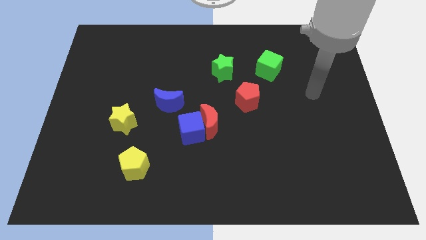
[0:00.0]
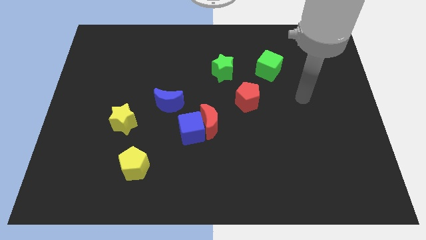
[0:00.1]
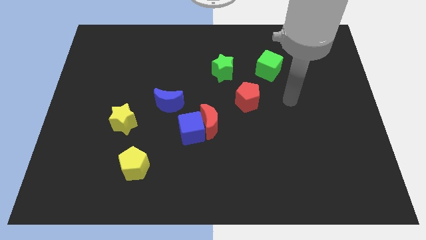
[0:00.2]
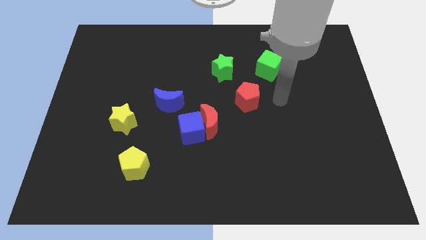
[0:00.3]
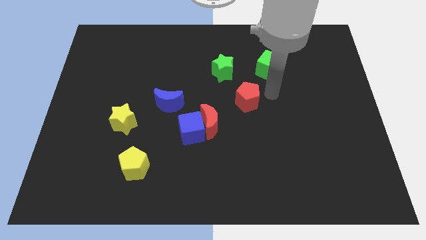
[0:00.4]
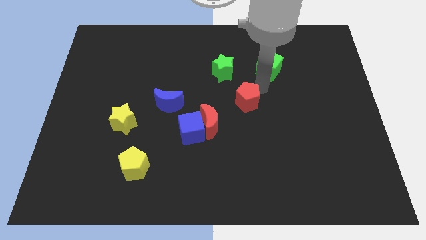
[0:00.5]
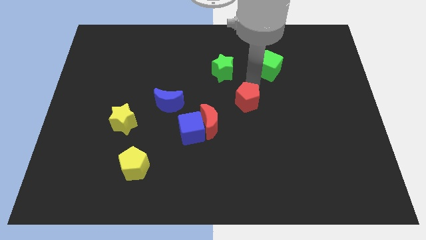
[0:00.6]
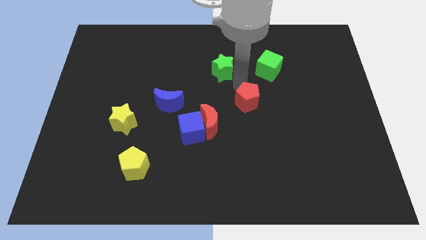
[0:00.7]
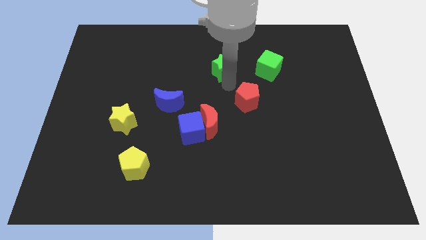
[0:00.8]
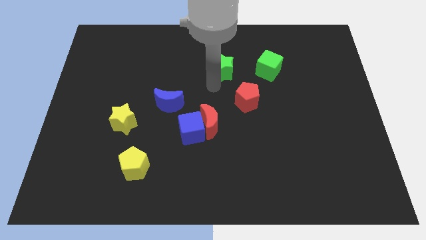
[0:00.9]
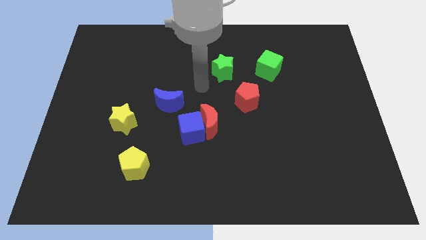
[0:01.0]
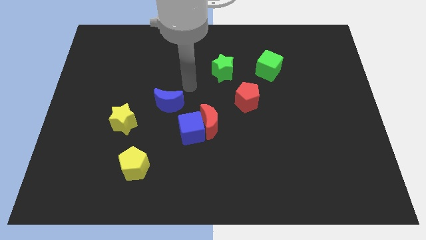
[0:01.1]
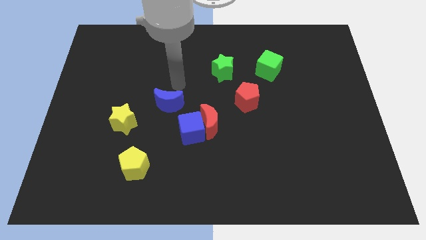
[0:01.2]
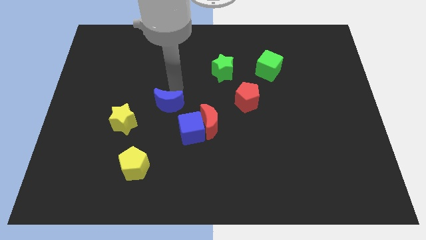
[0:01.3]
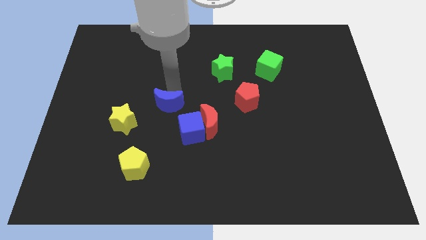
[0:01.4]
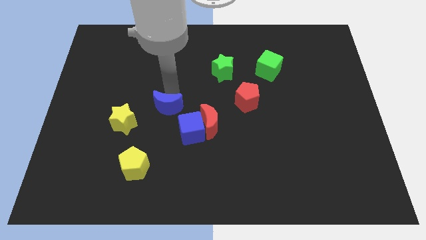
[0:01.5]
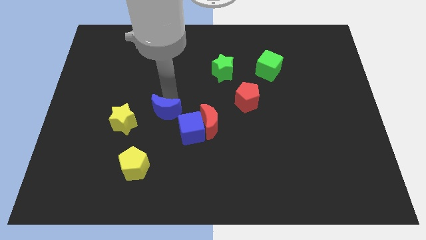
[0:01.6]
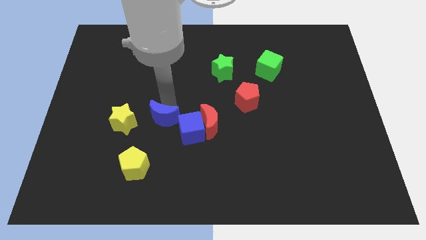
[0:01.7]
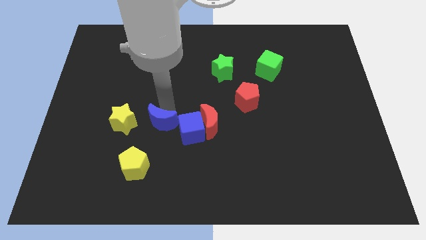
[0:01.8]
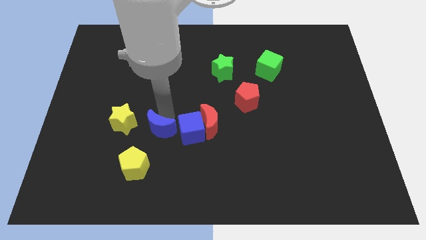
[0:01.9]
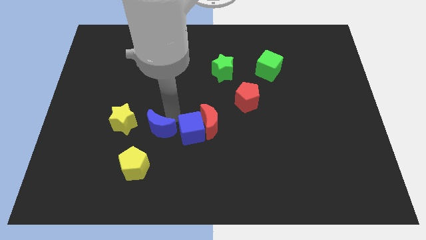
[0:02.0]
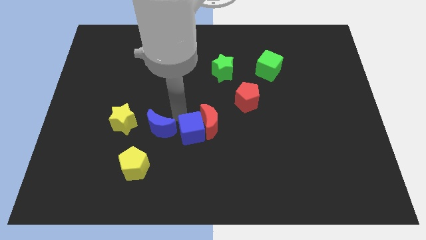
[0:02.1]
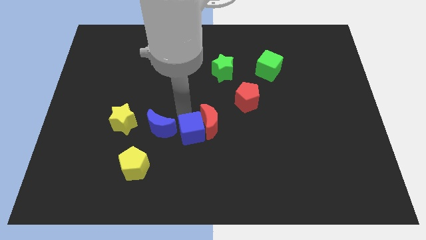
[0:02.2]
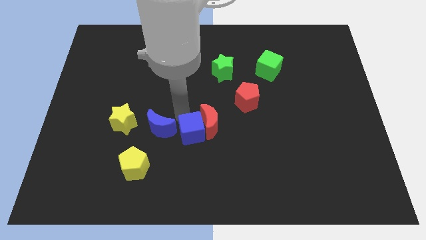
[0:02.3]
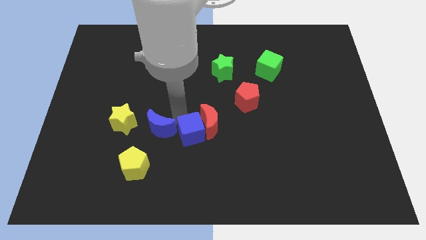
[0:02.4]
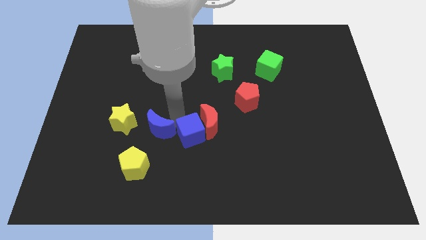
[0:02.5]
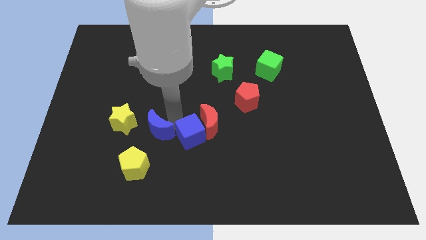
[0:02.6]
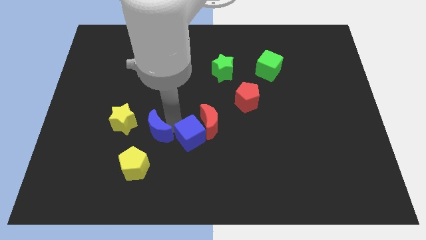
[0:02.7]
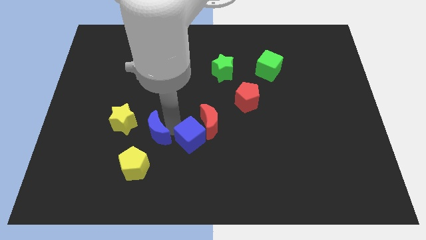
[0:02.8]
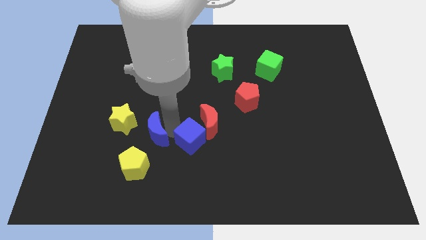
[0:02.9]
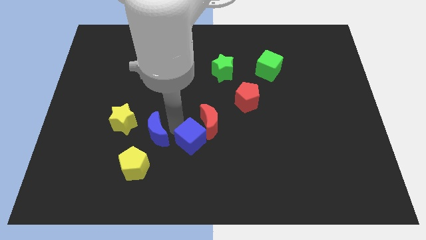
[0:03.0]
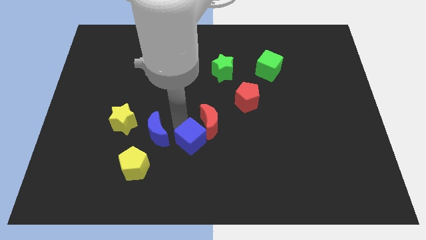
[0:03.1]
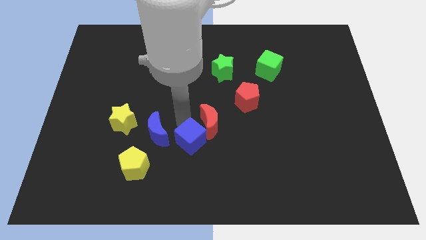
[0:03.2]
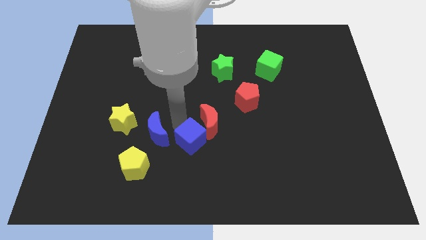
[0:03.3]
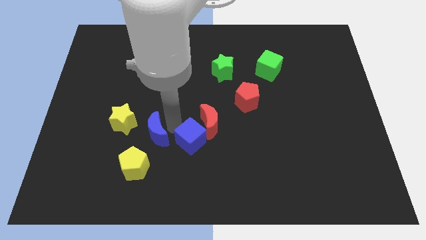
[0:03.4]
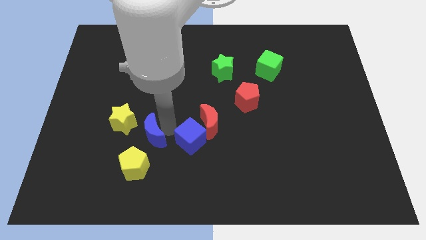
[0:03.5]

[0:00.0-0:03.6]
slightly slide the blue moon down and to the left

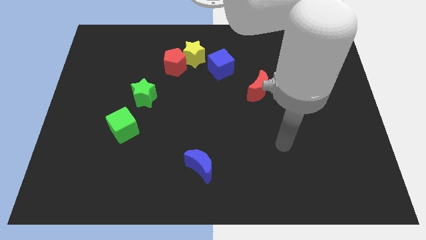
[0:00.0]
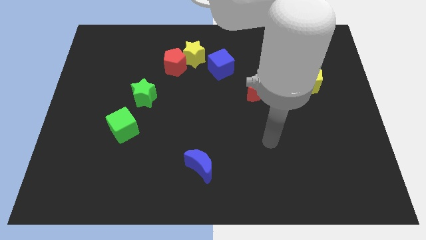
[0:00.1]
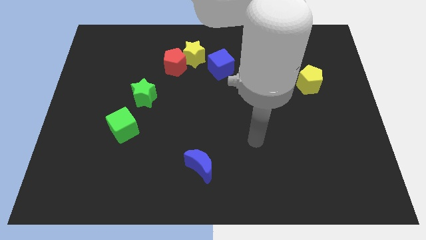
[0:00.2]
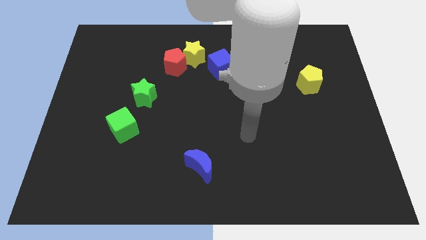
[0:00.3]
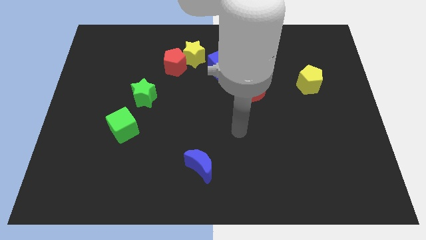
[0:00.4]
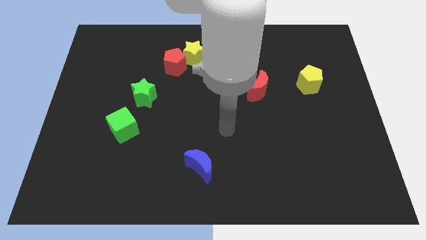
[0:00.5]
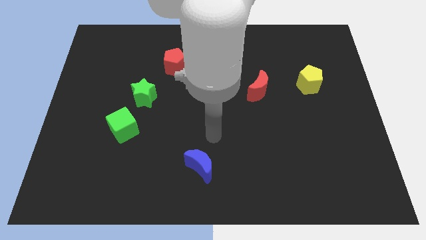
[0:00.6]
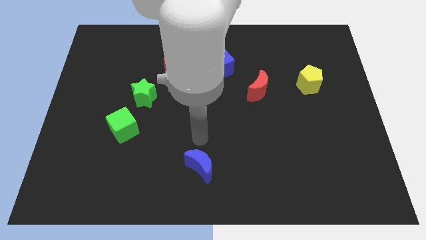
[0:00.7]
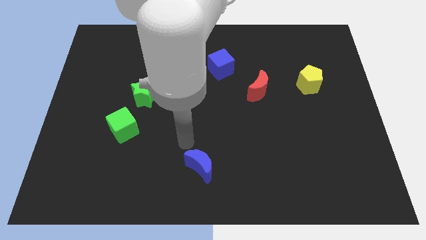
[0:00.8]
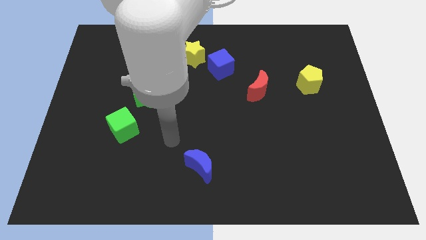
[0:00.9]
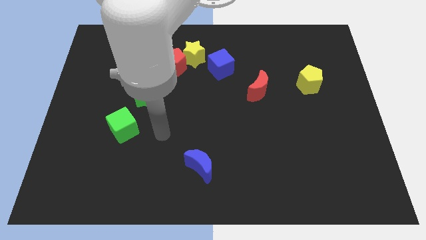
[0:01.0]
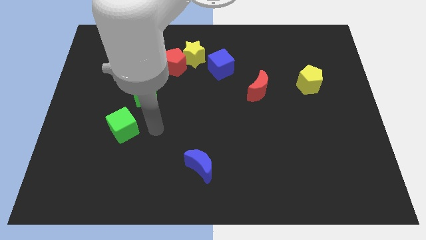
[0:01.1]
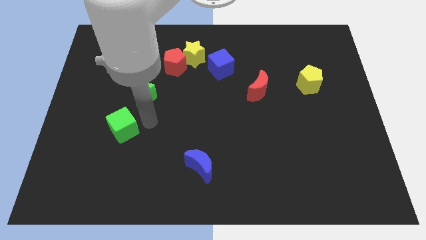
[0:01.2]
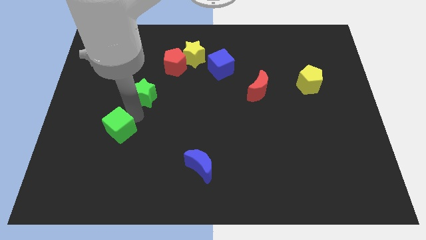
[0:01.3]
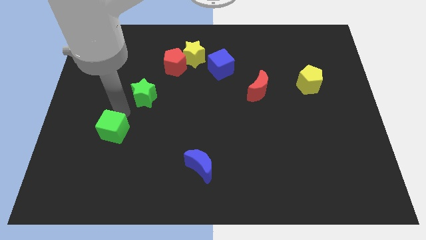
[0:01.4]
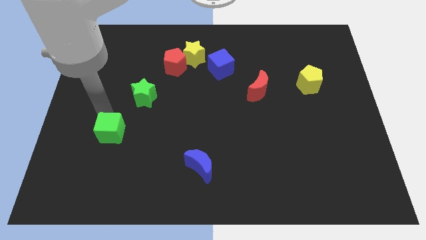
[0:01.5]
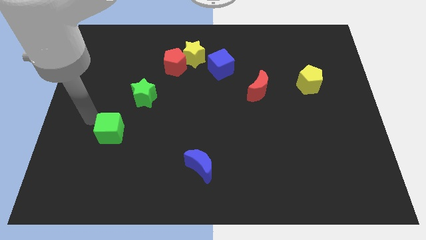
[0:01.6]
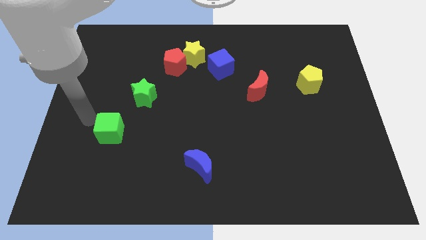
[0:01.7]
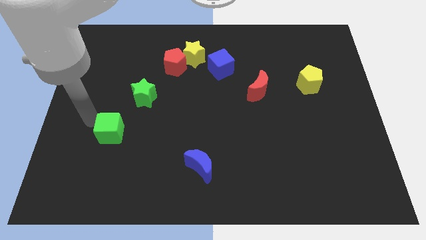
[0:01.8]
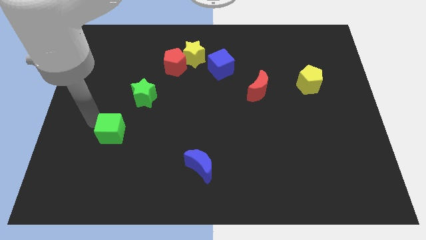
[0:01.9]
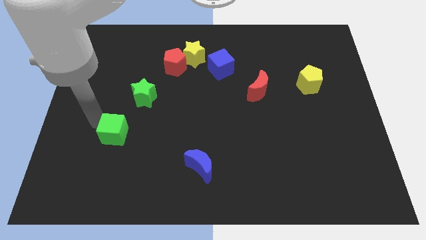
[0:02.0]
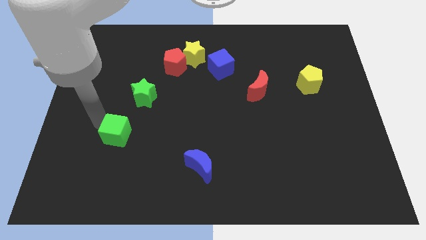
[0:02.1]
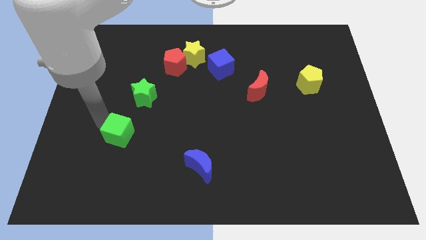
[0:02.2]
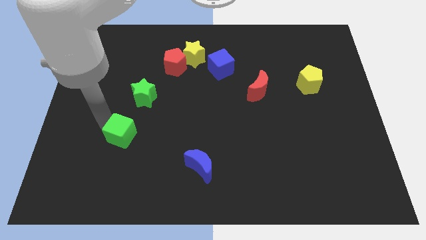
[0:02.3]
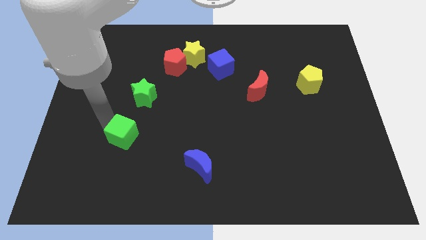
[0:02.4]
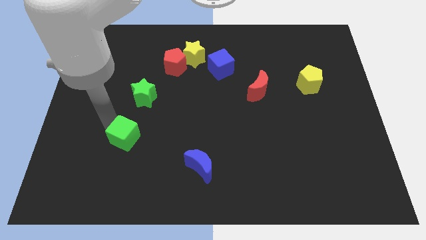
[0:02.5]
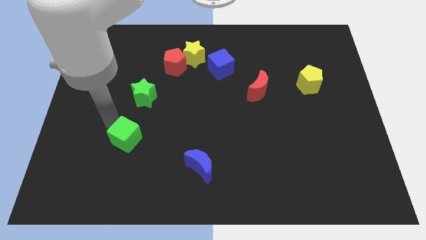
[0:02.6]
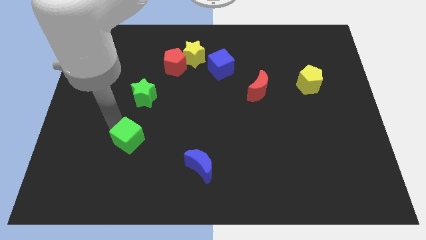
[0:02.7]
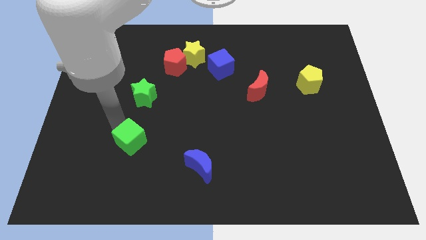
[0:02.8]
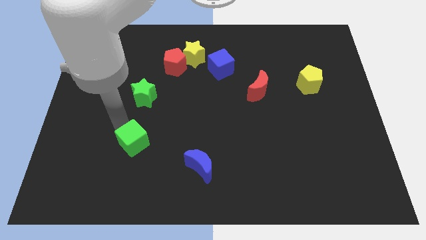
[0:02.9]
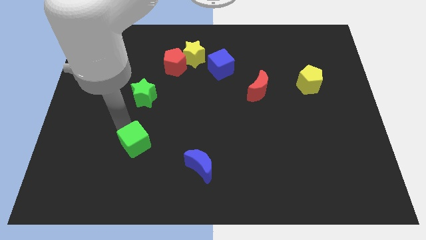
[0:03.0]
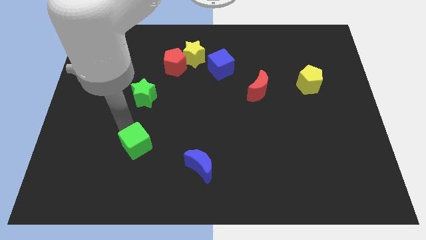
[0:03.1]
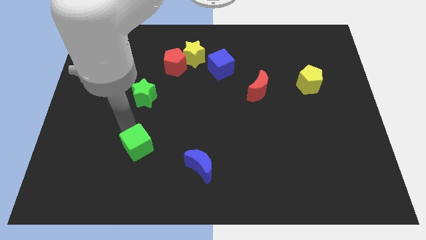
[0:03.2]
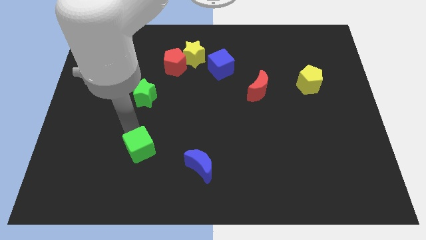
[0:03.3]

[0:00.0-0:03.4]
push the green cube a little down and right diagonally
